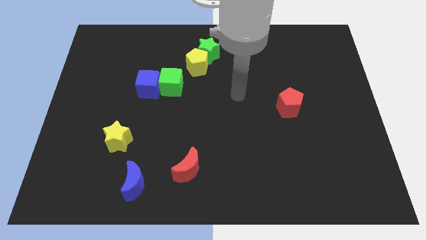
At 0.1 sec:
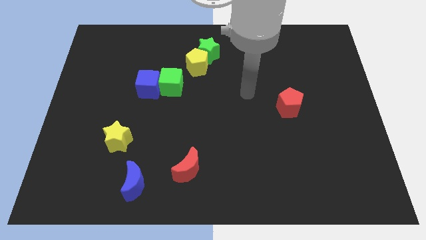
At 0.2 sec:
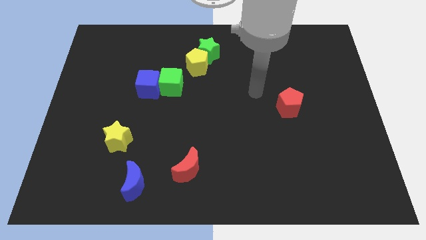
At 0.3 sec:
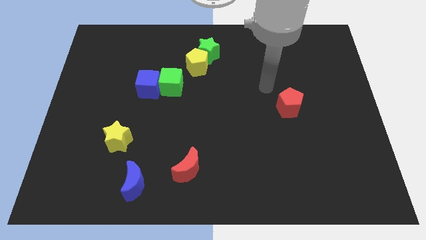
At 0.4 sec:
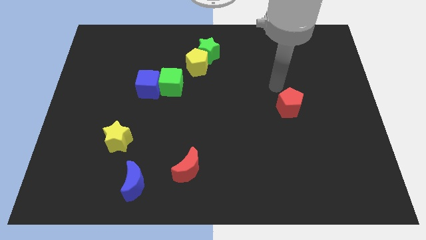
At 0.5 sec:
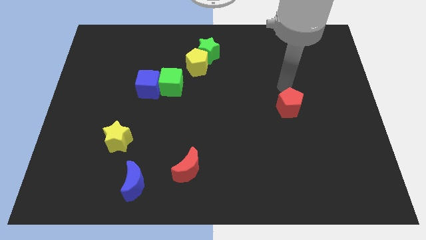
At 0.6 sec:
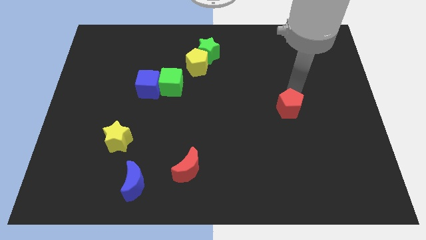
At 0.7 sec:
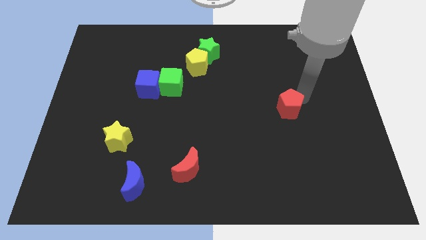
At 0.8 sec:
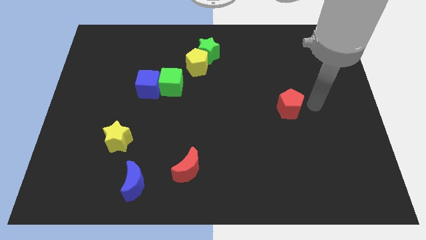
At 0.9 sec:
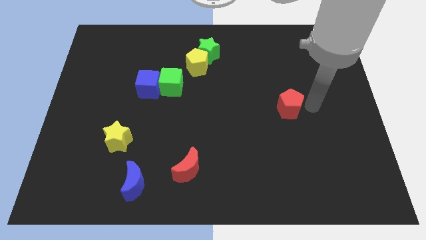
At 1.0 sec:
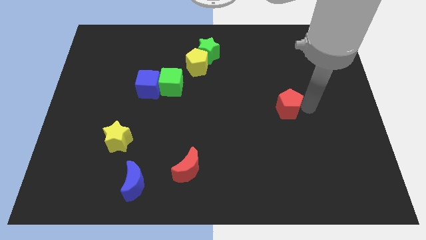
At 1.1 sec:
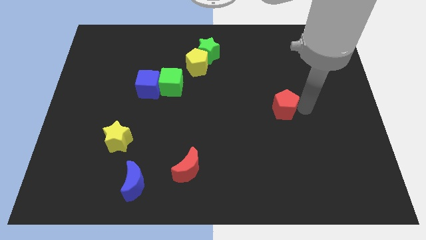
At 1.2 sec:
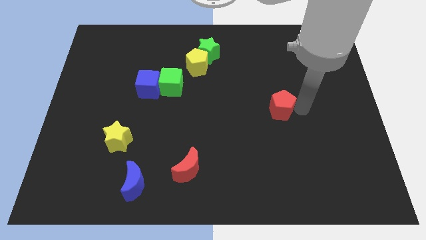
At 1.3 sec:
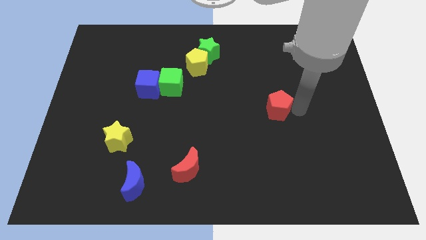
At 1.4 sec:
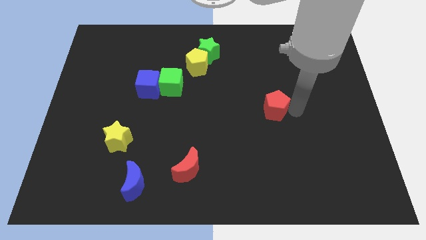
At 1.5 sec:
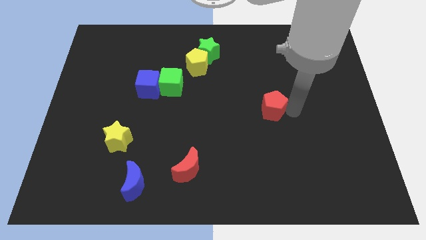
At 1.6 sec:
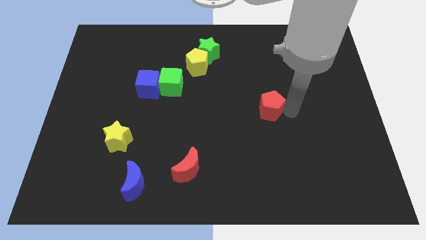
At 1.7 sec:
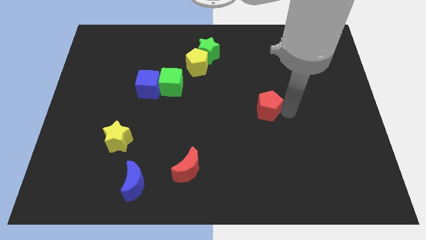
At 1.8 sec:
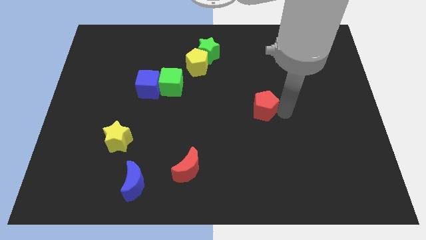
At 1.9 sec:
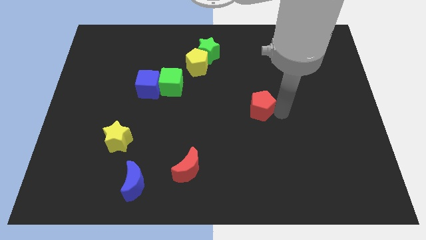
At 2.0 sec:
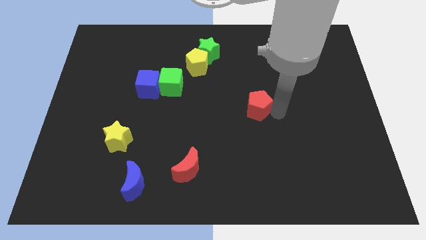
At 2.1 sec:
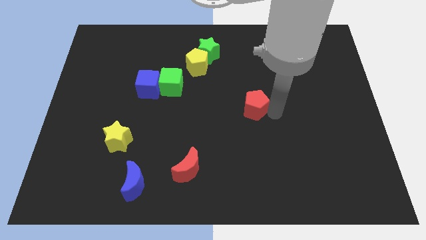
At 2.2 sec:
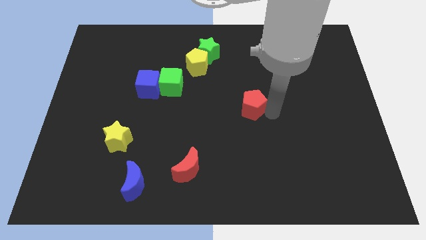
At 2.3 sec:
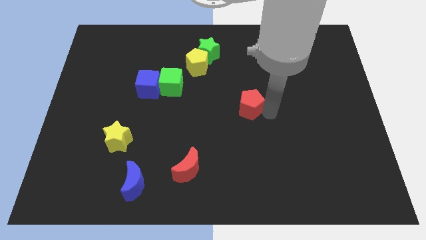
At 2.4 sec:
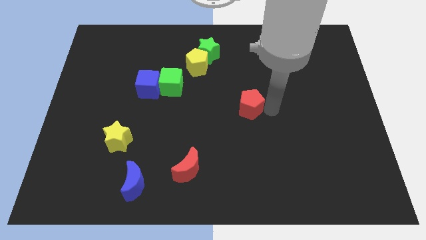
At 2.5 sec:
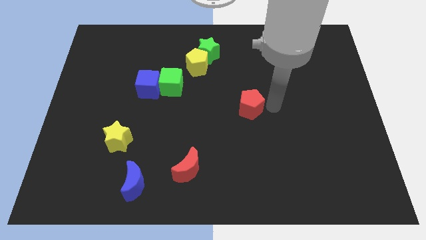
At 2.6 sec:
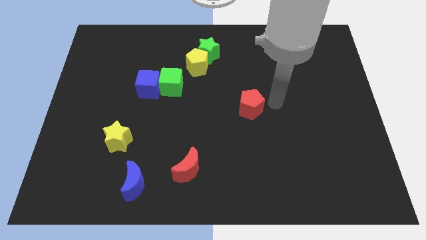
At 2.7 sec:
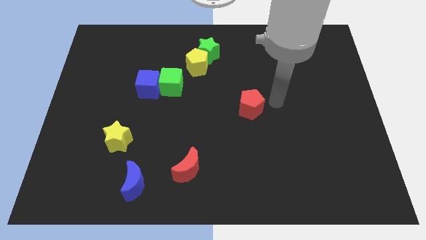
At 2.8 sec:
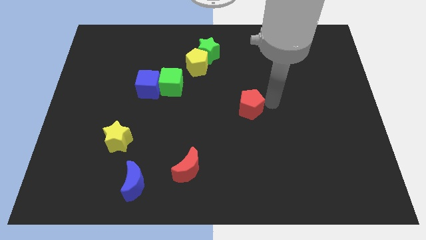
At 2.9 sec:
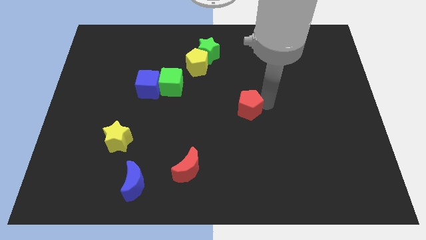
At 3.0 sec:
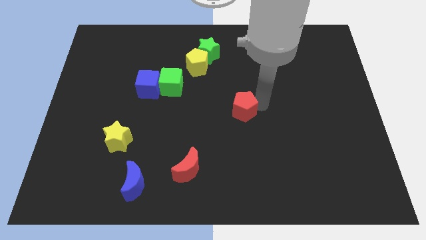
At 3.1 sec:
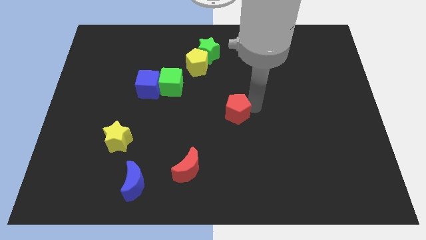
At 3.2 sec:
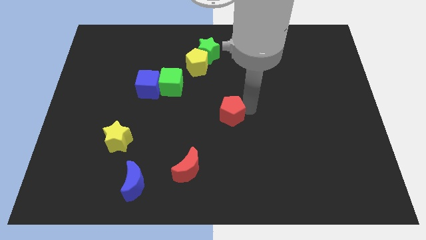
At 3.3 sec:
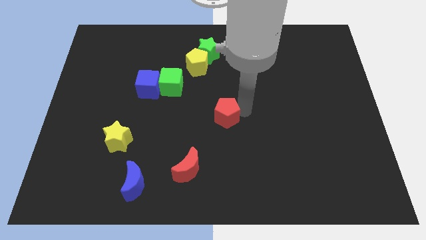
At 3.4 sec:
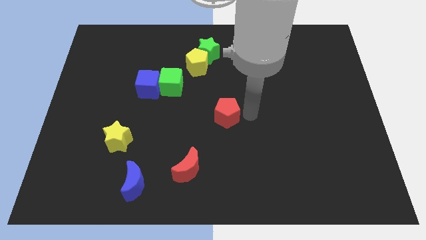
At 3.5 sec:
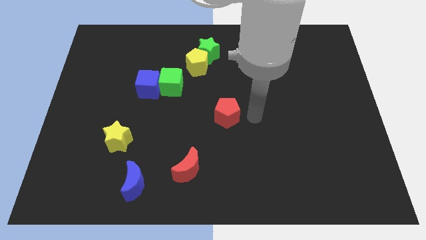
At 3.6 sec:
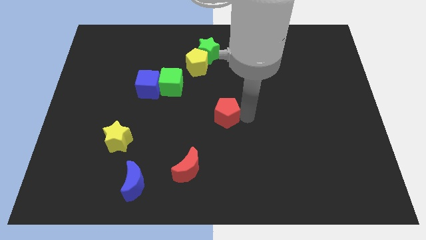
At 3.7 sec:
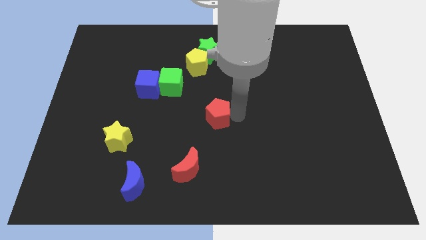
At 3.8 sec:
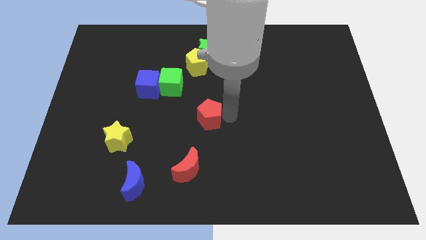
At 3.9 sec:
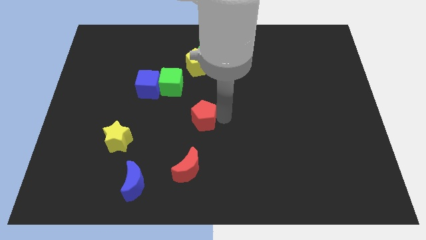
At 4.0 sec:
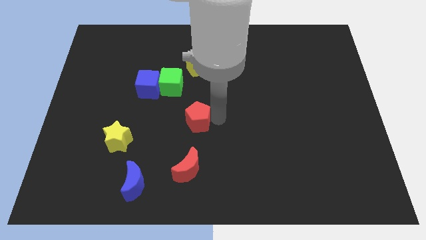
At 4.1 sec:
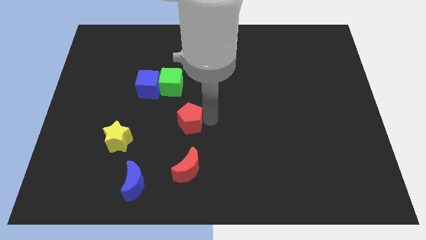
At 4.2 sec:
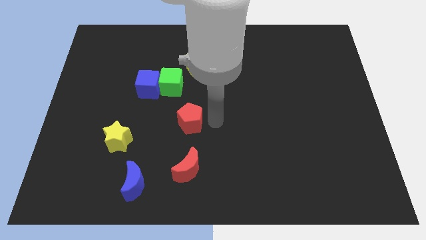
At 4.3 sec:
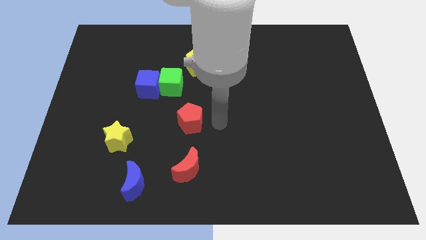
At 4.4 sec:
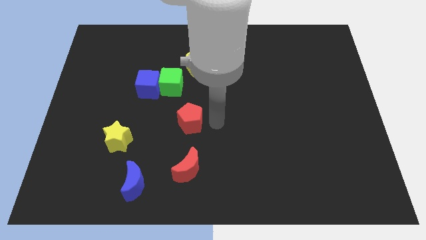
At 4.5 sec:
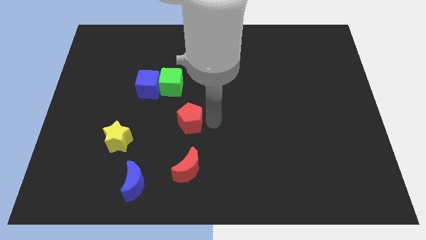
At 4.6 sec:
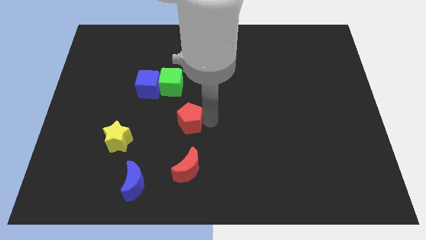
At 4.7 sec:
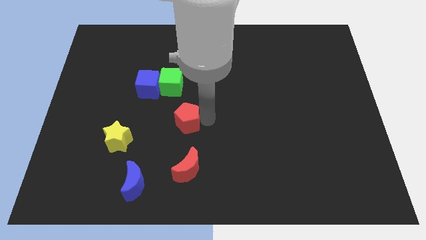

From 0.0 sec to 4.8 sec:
slide the red pentagon to the bottom of the green cube

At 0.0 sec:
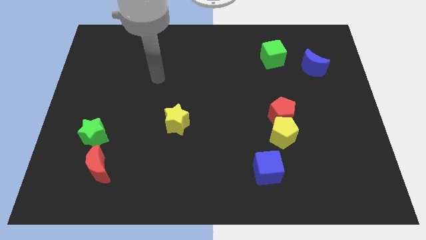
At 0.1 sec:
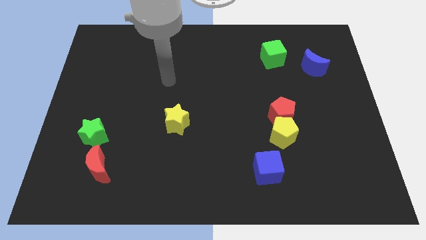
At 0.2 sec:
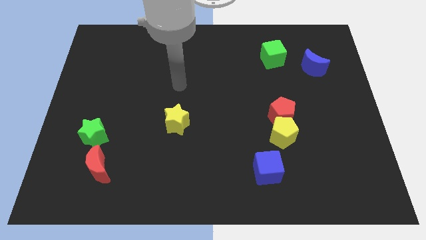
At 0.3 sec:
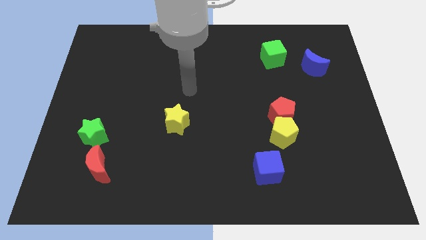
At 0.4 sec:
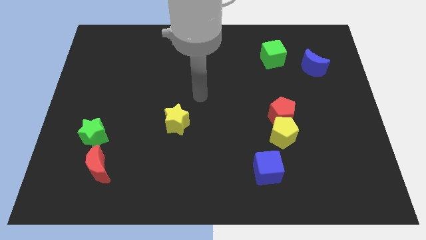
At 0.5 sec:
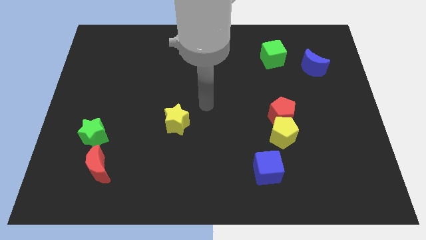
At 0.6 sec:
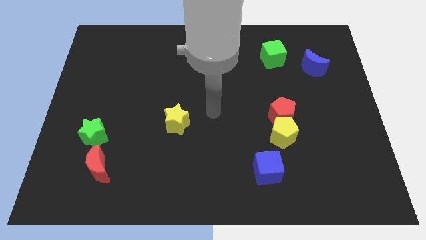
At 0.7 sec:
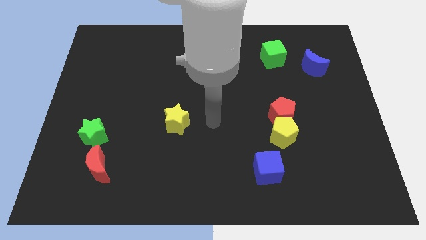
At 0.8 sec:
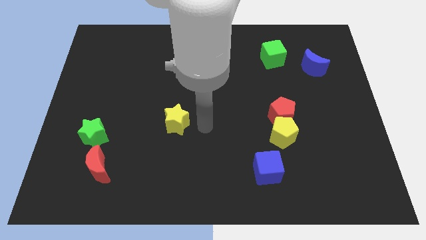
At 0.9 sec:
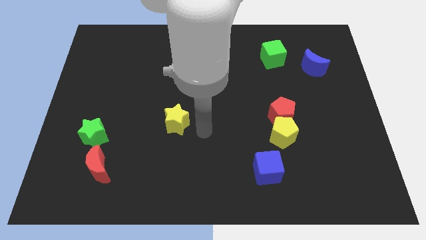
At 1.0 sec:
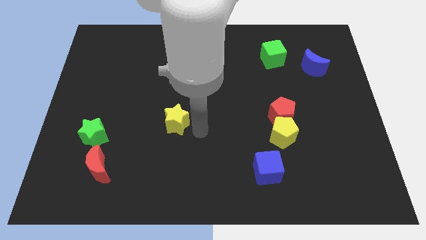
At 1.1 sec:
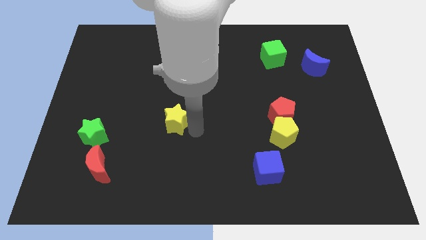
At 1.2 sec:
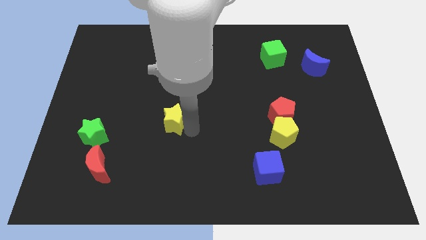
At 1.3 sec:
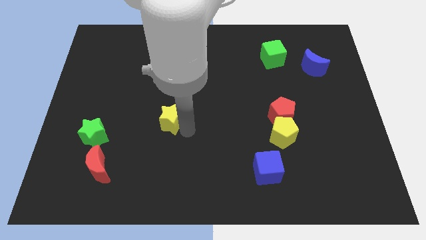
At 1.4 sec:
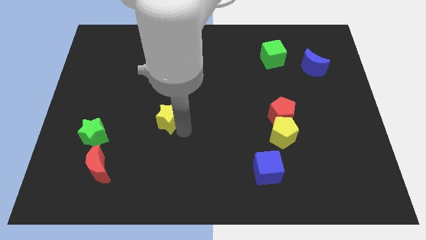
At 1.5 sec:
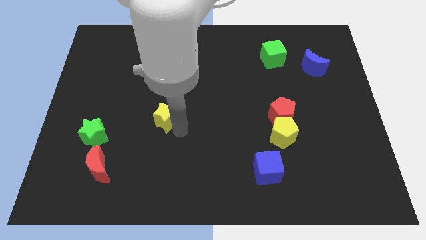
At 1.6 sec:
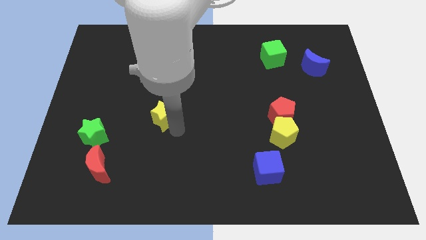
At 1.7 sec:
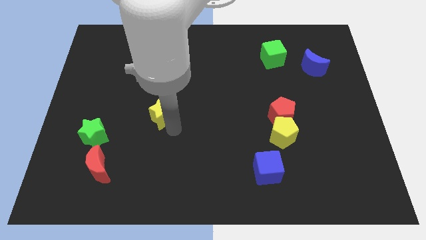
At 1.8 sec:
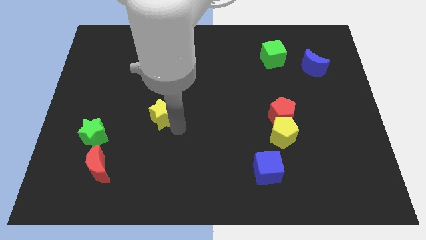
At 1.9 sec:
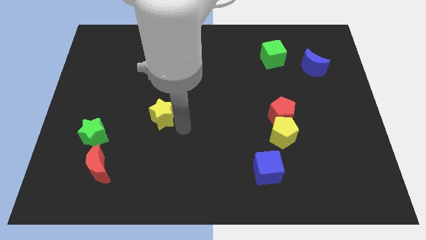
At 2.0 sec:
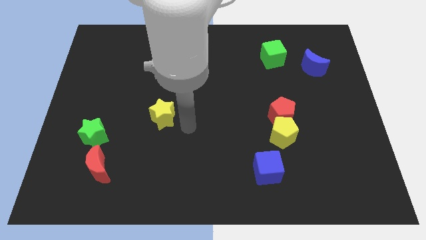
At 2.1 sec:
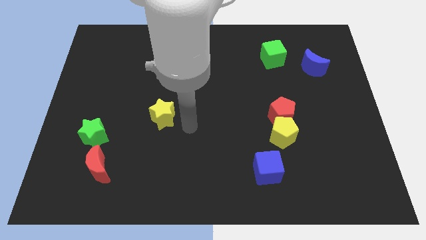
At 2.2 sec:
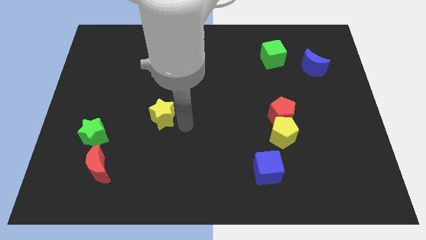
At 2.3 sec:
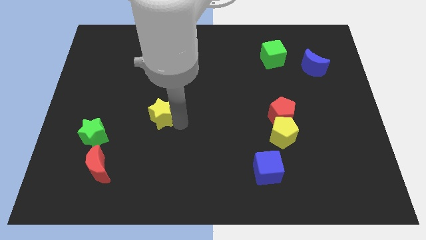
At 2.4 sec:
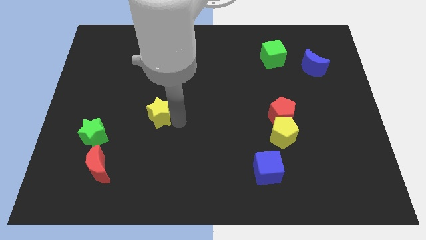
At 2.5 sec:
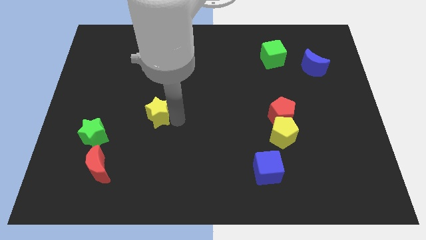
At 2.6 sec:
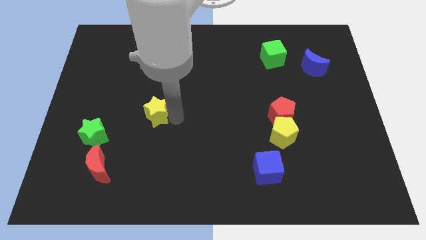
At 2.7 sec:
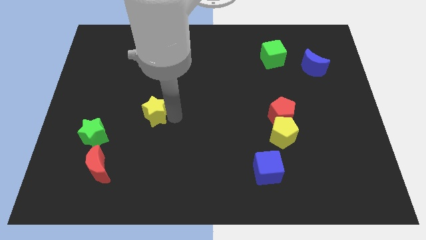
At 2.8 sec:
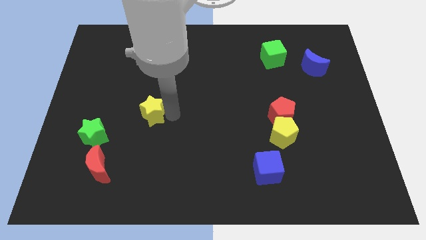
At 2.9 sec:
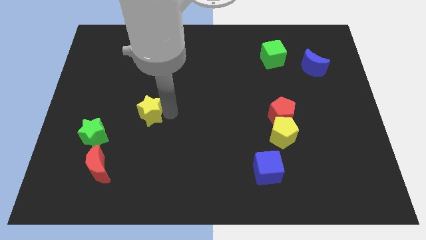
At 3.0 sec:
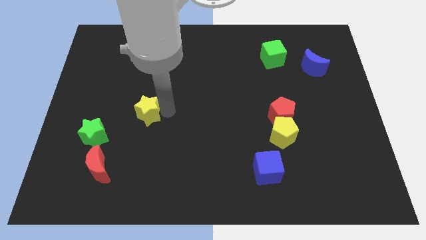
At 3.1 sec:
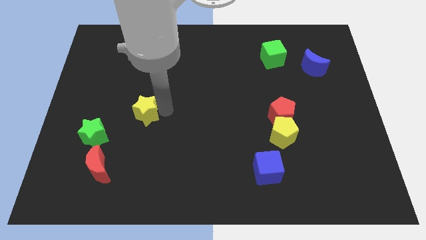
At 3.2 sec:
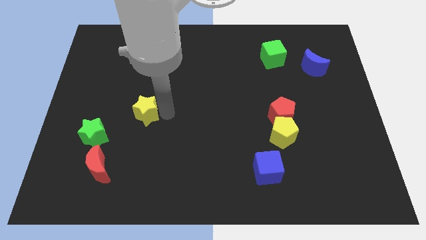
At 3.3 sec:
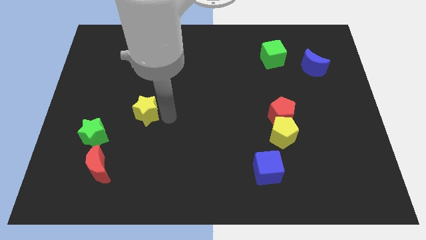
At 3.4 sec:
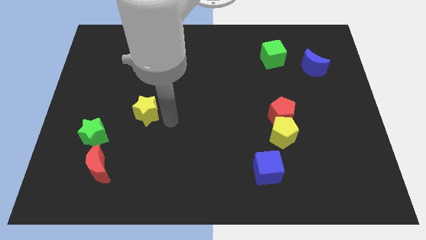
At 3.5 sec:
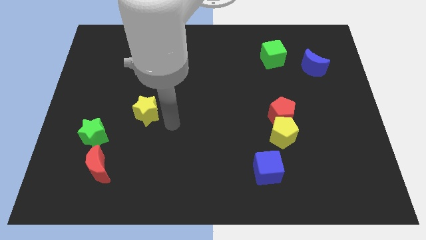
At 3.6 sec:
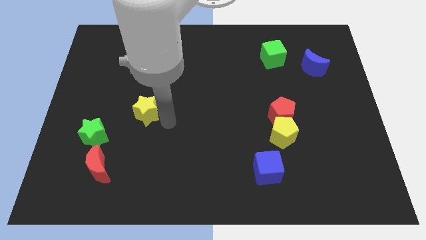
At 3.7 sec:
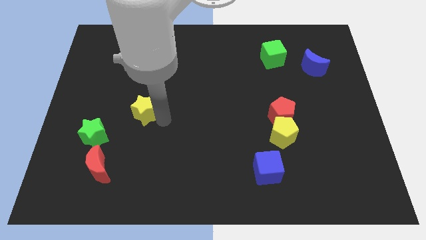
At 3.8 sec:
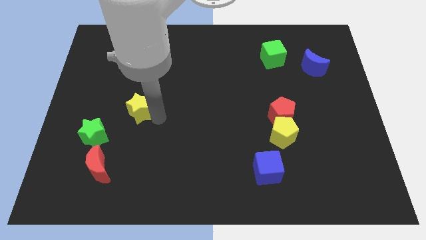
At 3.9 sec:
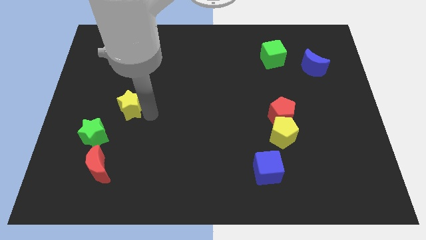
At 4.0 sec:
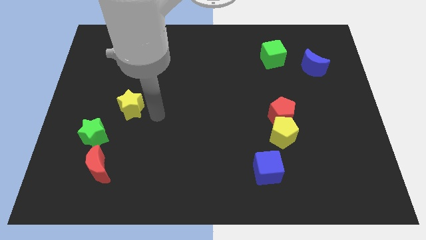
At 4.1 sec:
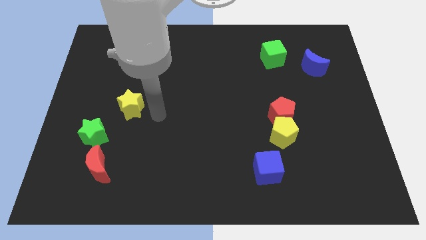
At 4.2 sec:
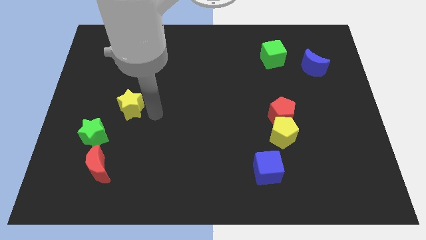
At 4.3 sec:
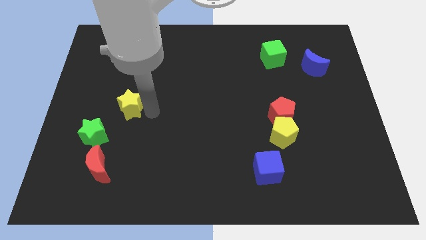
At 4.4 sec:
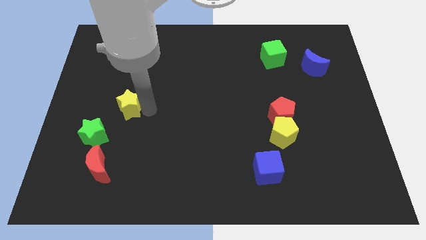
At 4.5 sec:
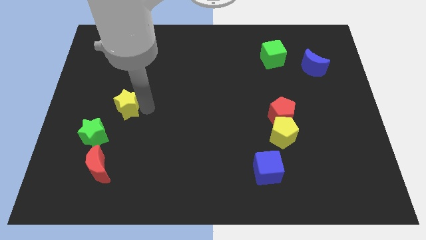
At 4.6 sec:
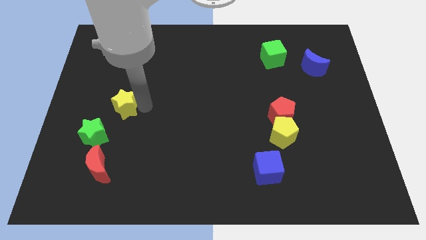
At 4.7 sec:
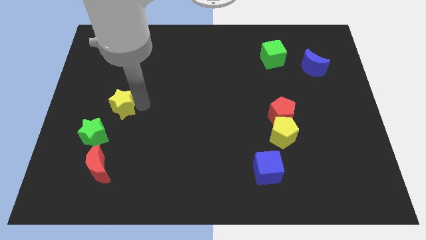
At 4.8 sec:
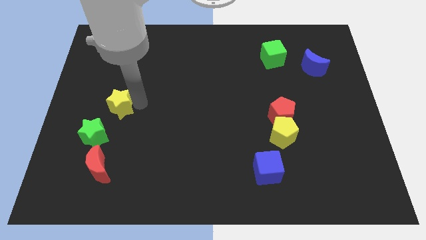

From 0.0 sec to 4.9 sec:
slide the yellow star to the top of the green star
